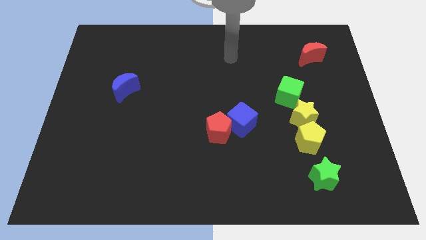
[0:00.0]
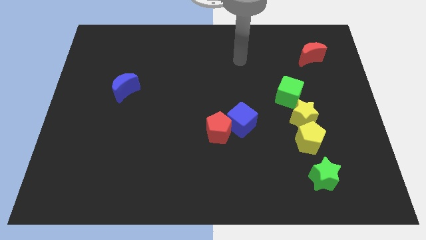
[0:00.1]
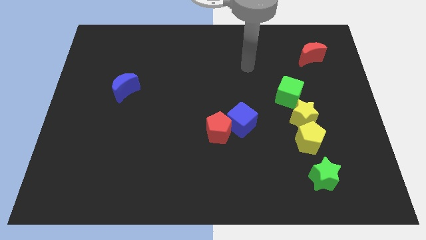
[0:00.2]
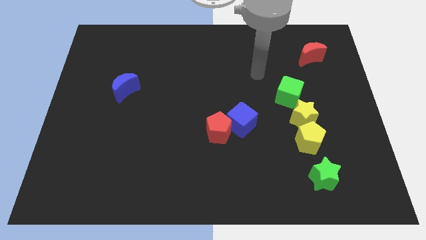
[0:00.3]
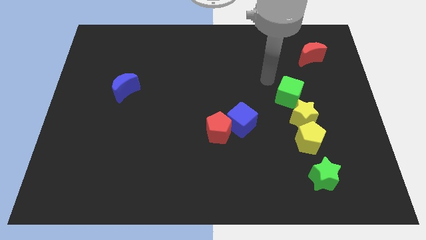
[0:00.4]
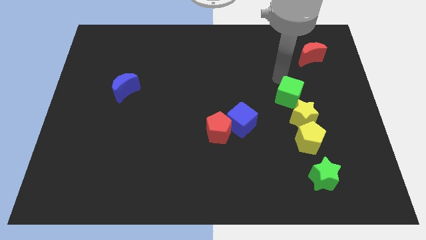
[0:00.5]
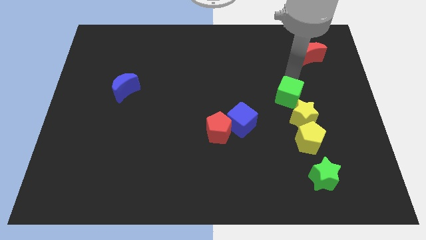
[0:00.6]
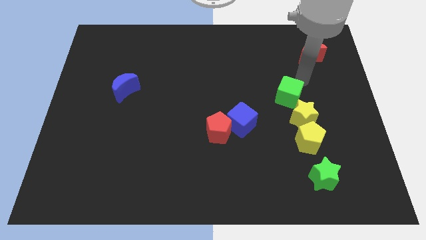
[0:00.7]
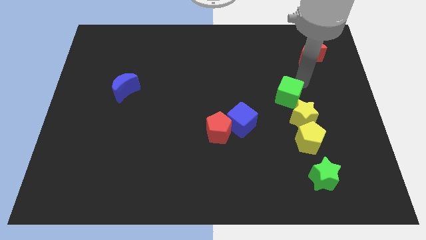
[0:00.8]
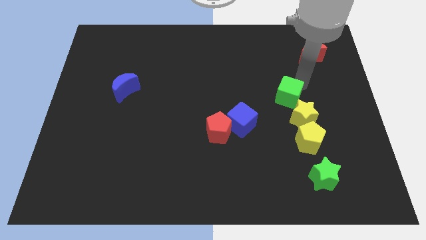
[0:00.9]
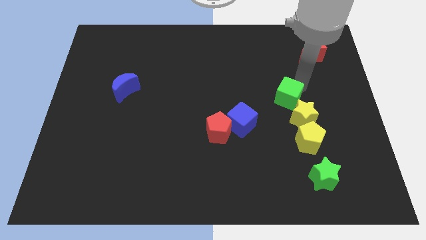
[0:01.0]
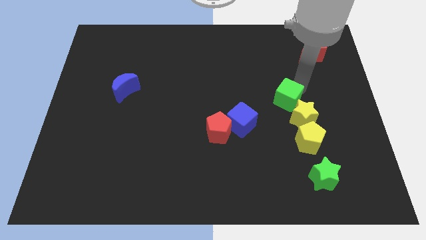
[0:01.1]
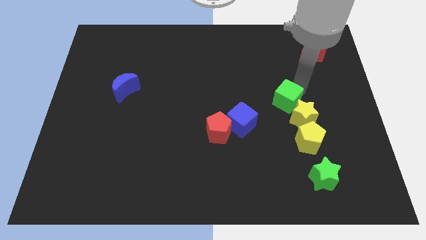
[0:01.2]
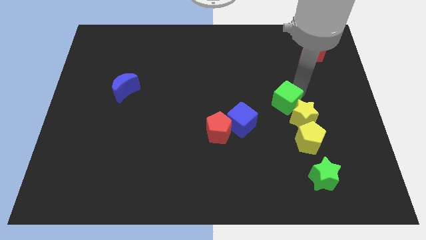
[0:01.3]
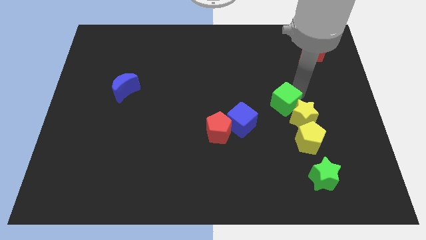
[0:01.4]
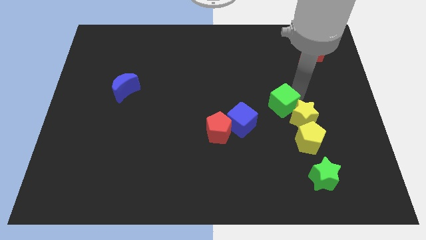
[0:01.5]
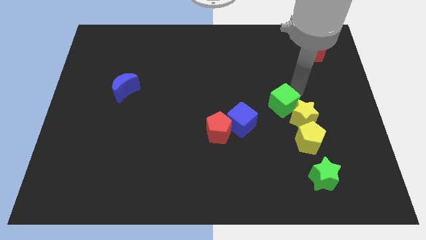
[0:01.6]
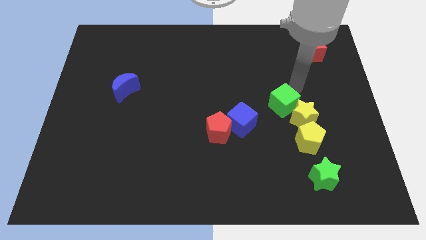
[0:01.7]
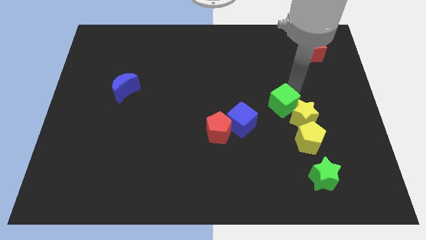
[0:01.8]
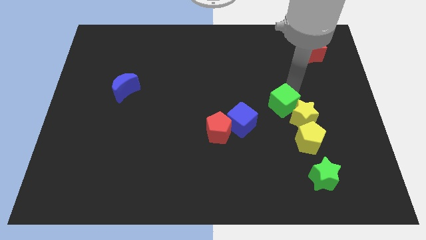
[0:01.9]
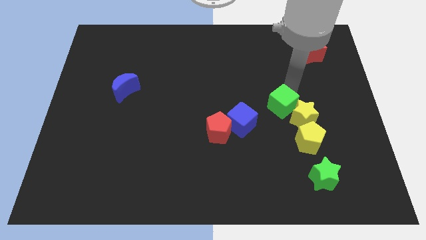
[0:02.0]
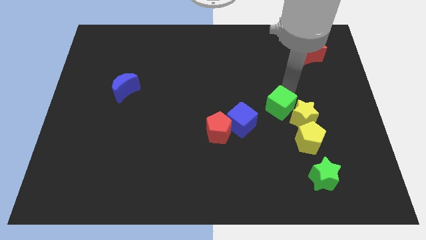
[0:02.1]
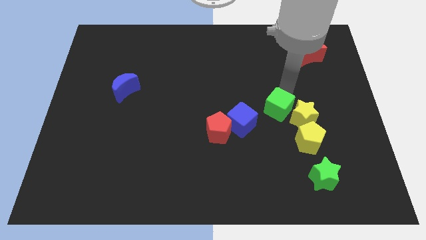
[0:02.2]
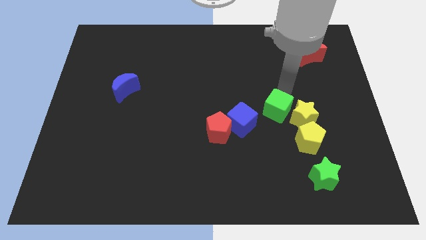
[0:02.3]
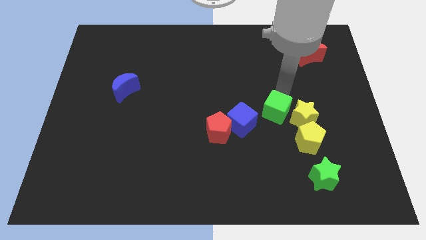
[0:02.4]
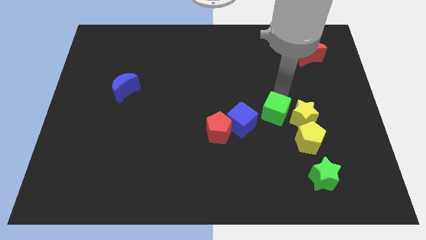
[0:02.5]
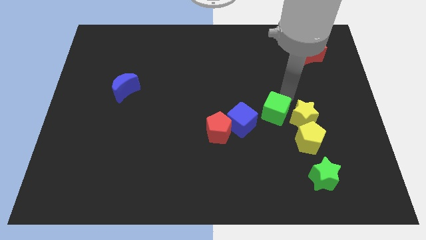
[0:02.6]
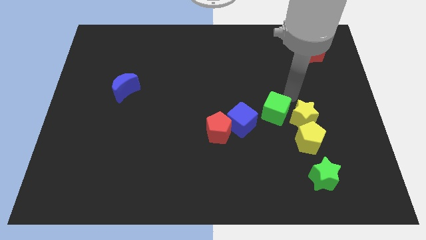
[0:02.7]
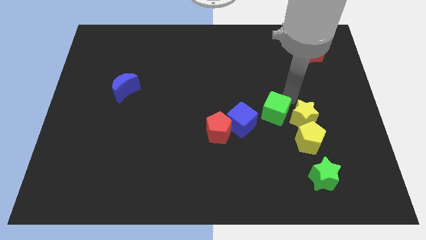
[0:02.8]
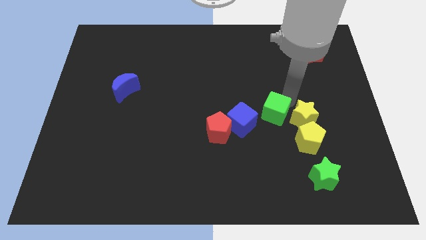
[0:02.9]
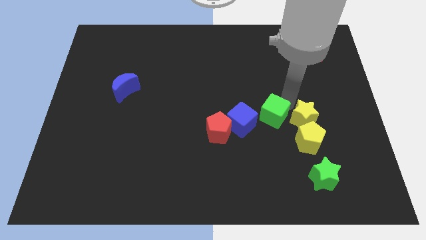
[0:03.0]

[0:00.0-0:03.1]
move the green cube a little bit down and left diagonally

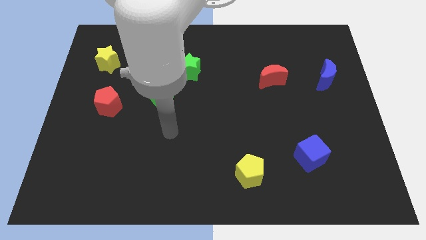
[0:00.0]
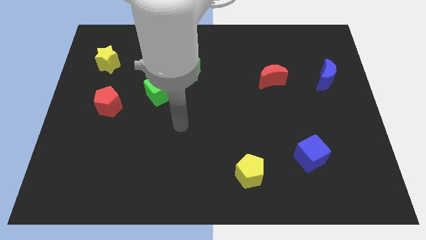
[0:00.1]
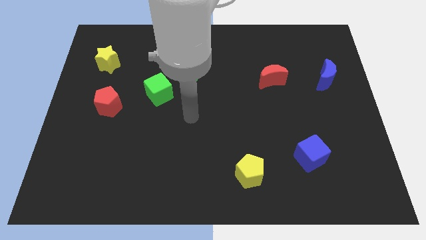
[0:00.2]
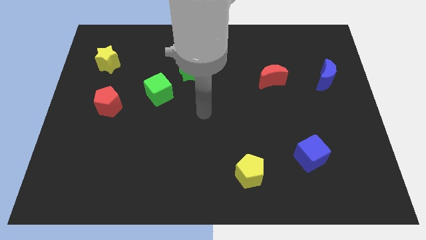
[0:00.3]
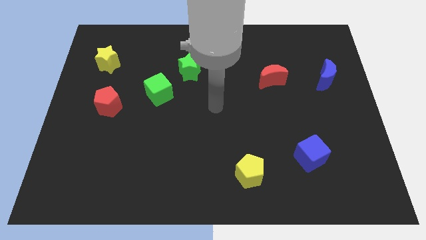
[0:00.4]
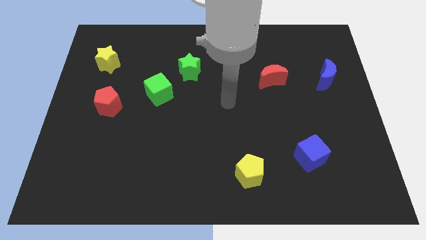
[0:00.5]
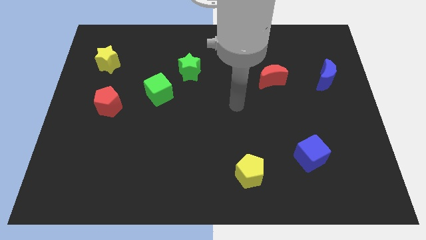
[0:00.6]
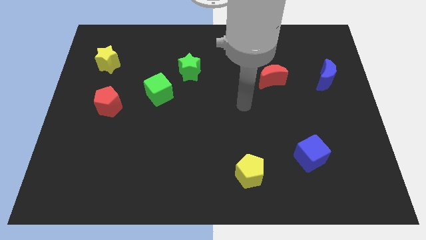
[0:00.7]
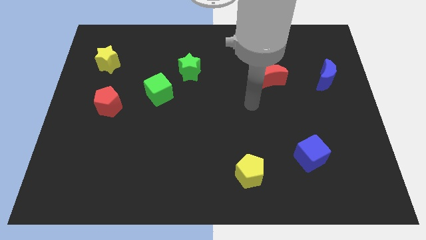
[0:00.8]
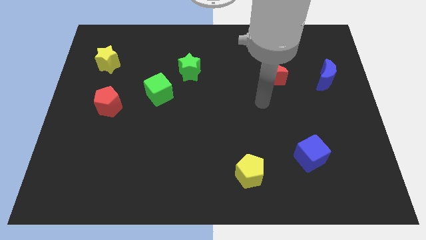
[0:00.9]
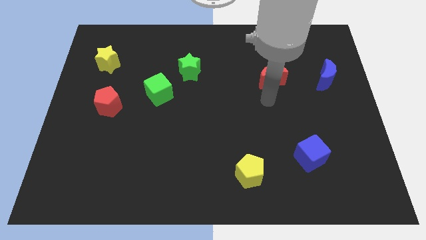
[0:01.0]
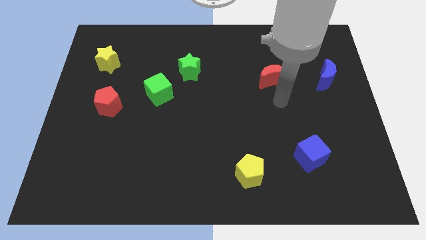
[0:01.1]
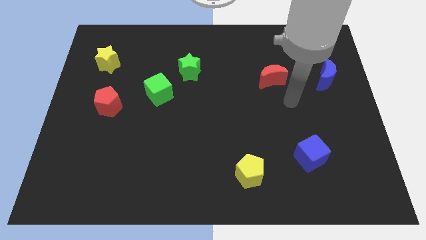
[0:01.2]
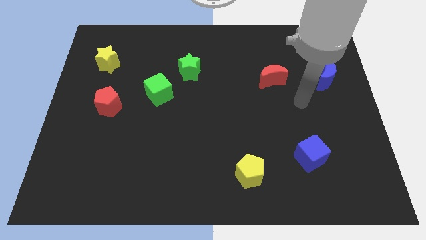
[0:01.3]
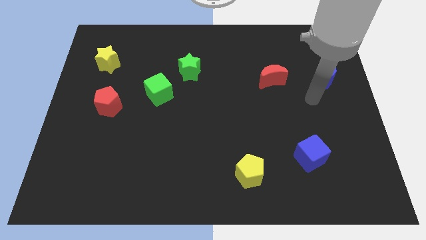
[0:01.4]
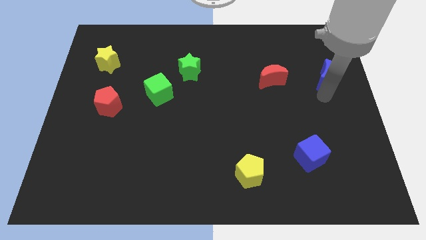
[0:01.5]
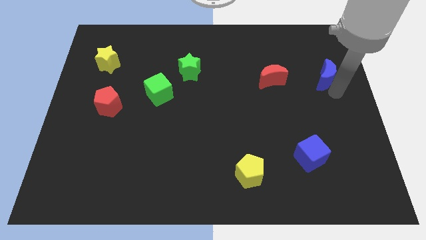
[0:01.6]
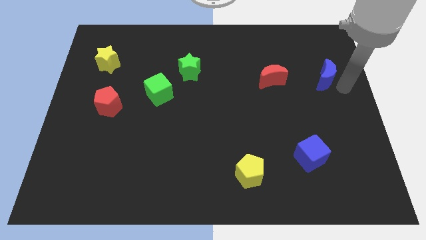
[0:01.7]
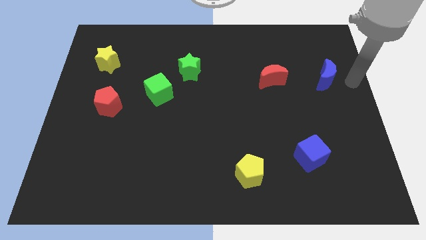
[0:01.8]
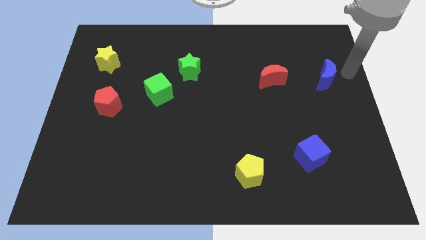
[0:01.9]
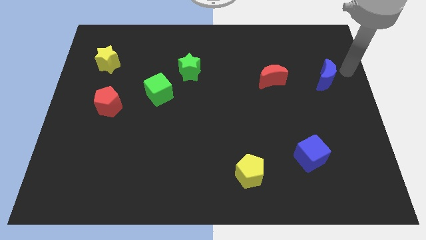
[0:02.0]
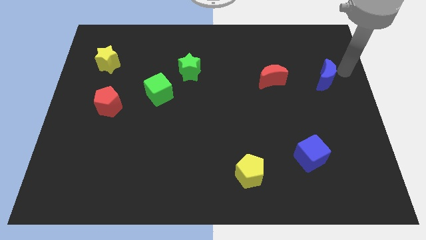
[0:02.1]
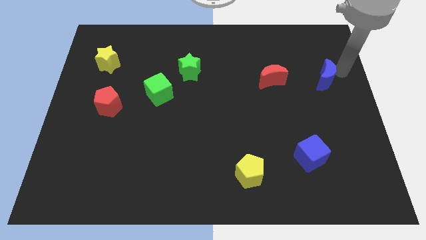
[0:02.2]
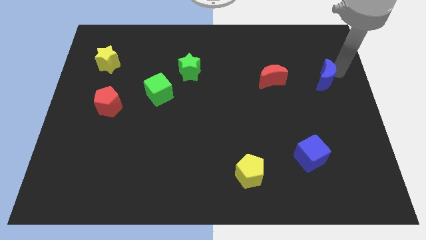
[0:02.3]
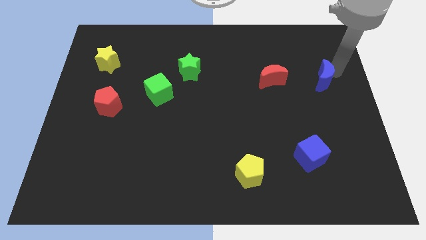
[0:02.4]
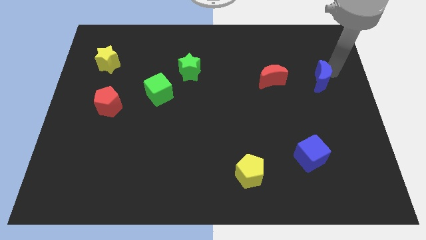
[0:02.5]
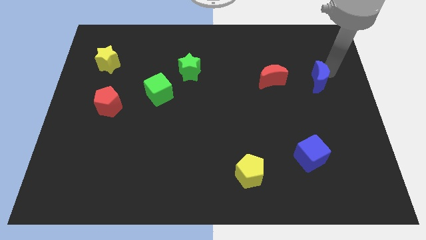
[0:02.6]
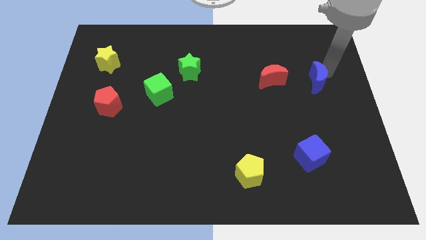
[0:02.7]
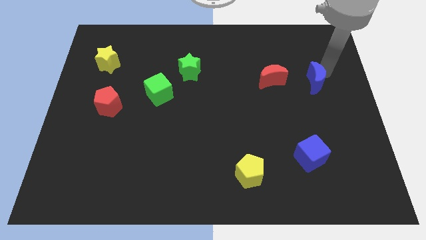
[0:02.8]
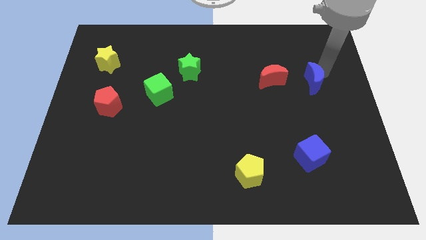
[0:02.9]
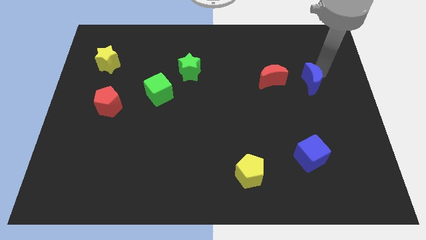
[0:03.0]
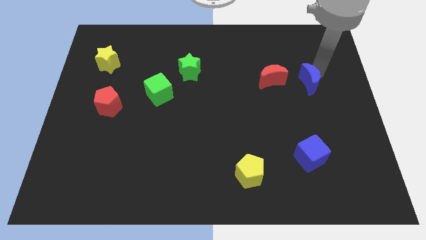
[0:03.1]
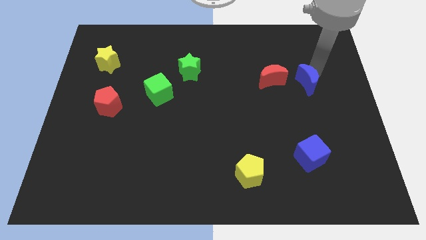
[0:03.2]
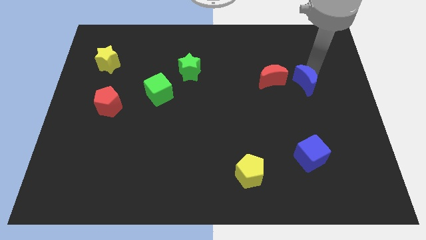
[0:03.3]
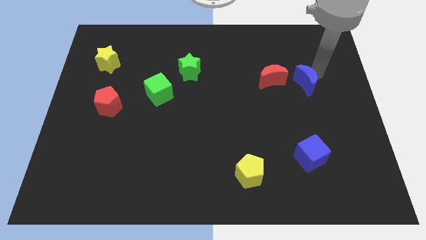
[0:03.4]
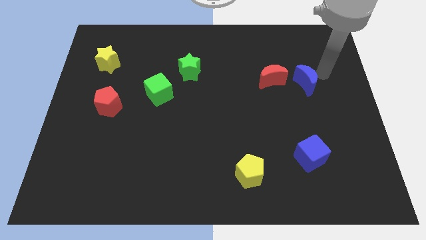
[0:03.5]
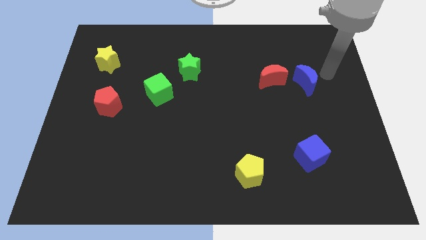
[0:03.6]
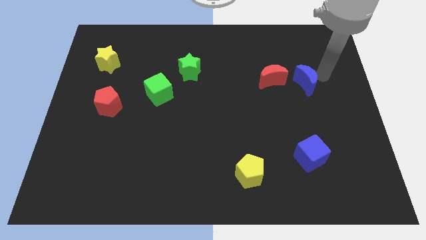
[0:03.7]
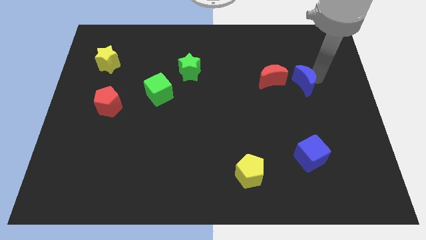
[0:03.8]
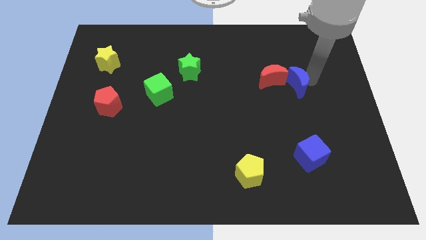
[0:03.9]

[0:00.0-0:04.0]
move the blue moon somewhat left

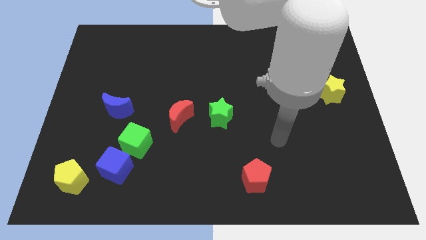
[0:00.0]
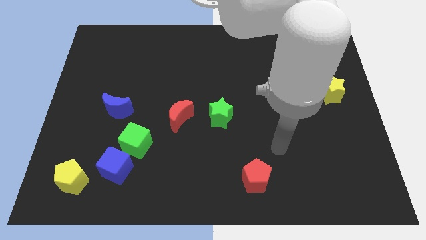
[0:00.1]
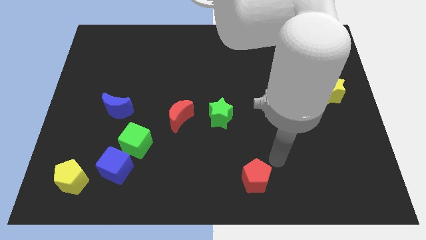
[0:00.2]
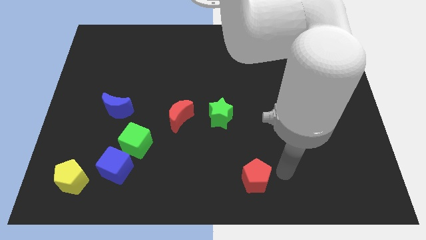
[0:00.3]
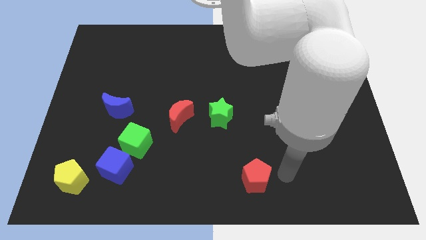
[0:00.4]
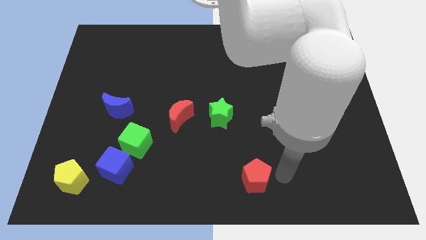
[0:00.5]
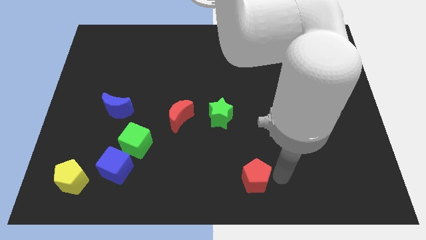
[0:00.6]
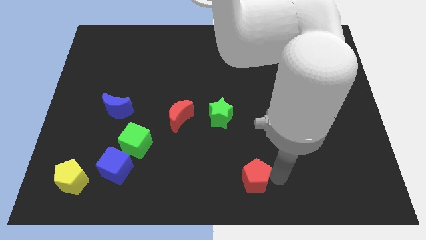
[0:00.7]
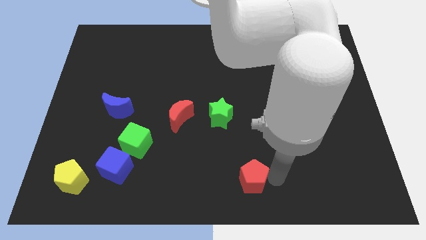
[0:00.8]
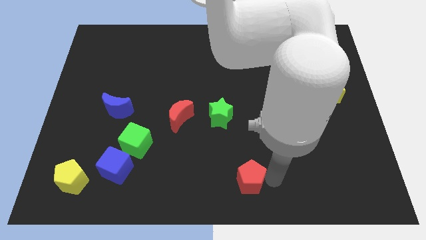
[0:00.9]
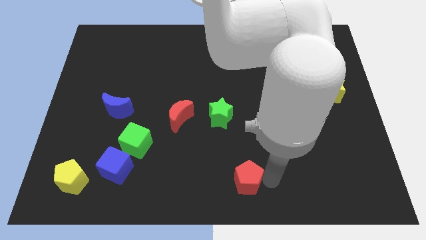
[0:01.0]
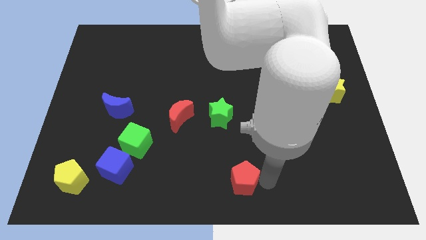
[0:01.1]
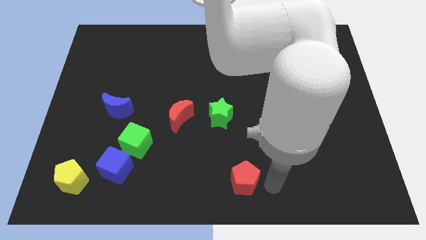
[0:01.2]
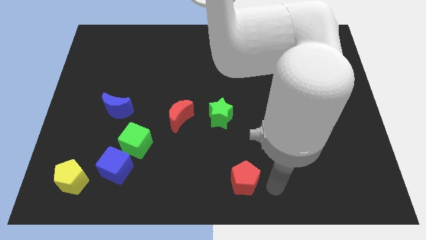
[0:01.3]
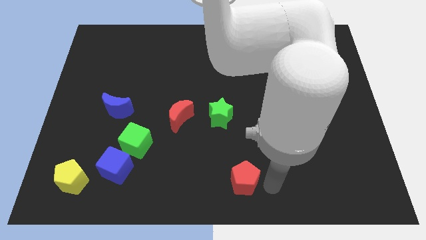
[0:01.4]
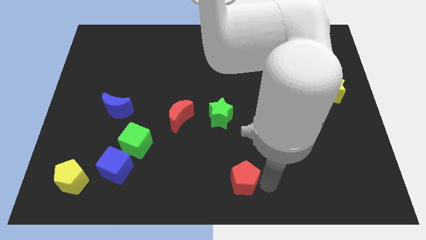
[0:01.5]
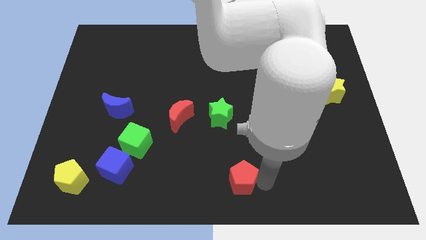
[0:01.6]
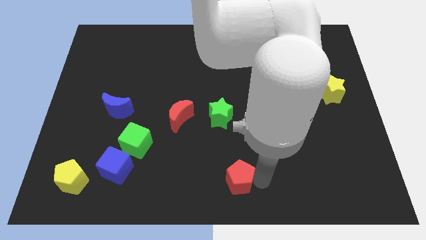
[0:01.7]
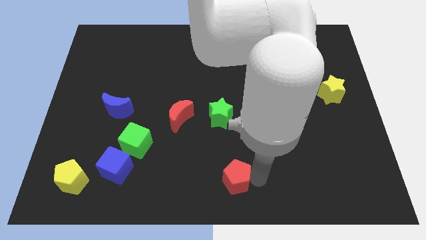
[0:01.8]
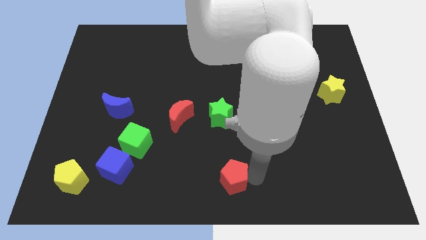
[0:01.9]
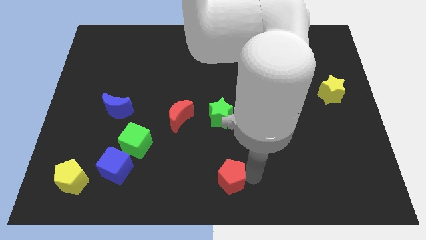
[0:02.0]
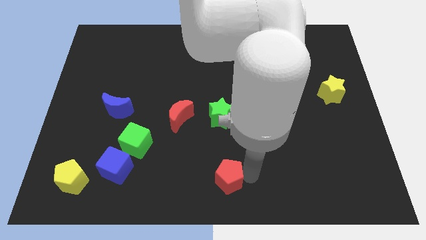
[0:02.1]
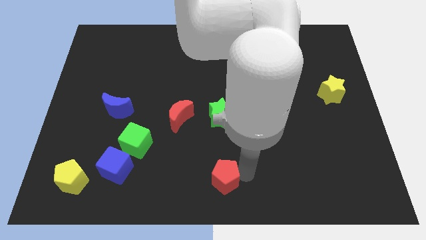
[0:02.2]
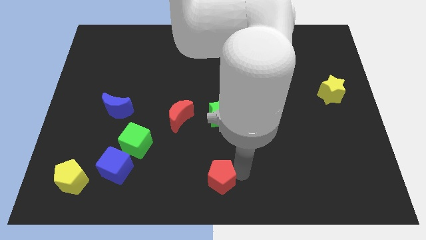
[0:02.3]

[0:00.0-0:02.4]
slide the red pentagon a little bit left
